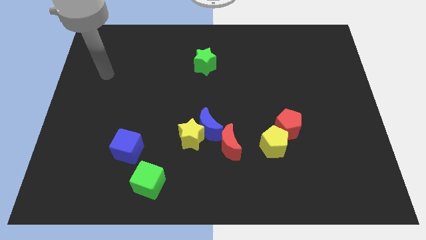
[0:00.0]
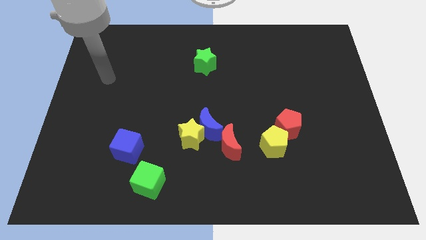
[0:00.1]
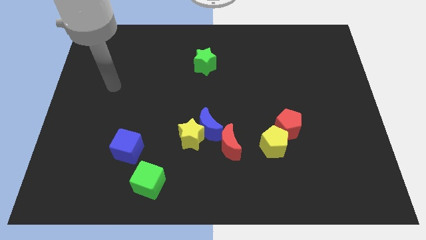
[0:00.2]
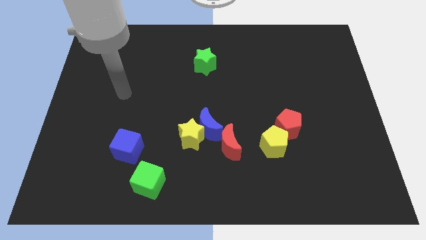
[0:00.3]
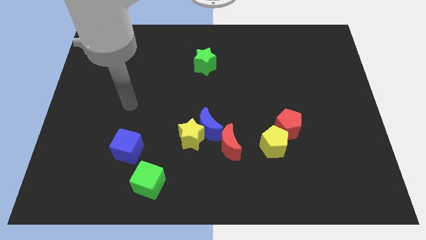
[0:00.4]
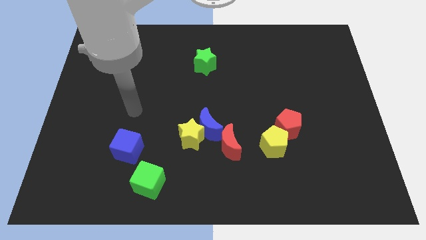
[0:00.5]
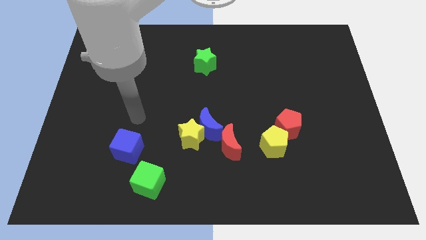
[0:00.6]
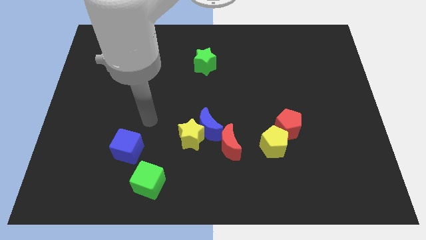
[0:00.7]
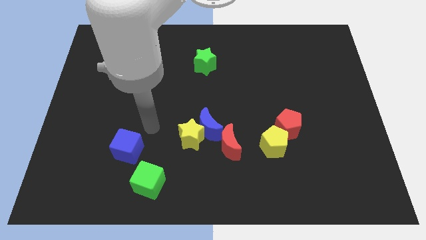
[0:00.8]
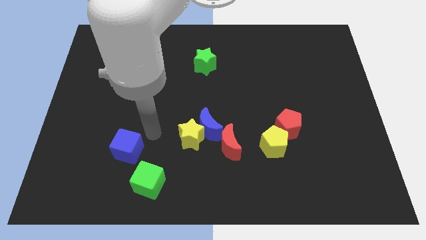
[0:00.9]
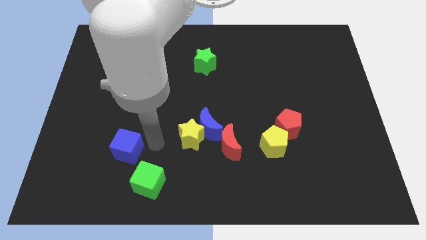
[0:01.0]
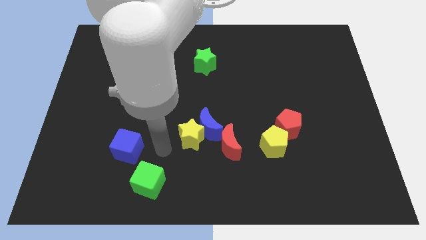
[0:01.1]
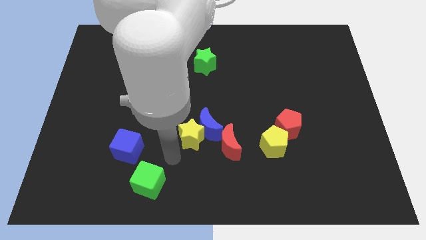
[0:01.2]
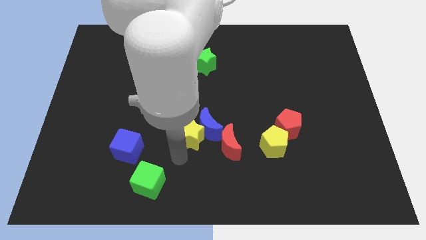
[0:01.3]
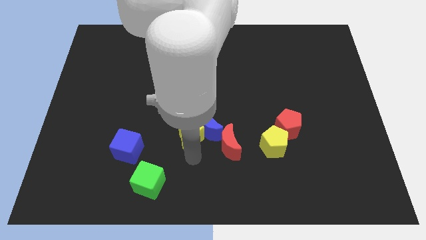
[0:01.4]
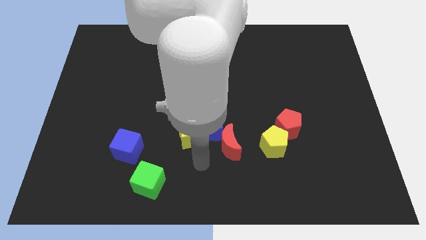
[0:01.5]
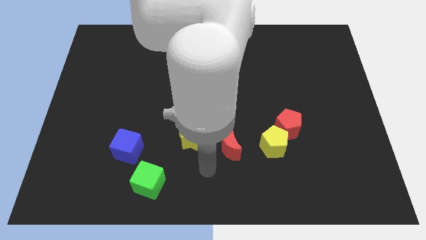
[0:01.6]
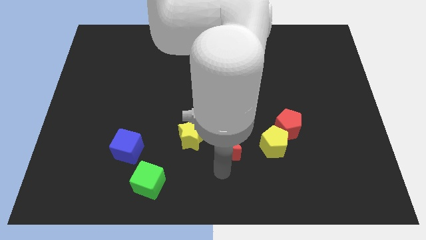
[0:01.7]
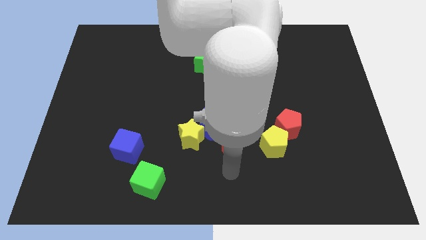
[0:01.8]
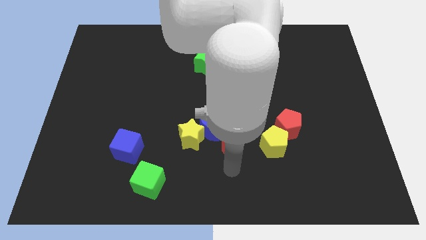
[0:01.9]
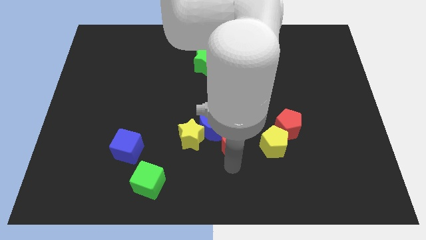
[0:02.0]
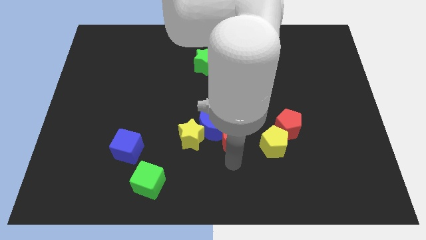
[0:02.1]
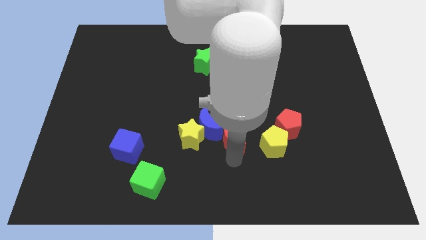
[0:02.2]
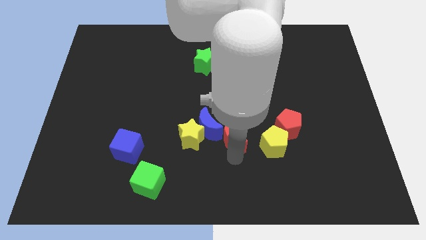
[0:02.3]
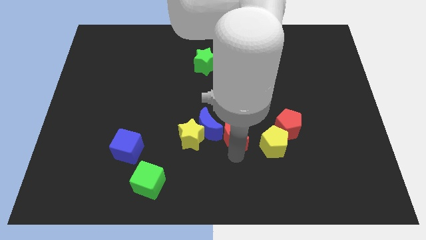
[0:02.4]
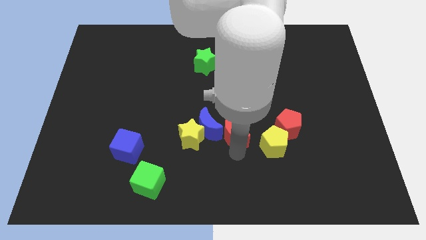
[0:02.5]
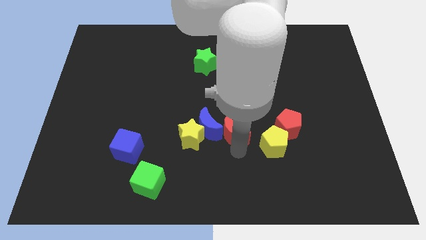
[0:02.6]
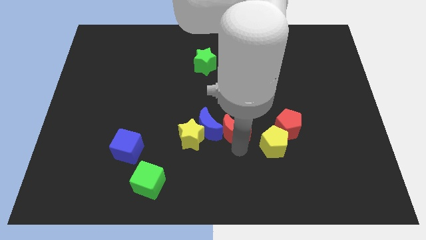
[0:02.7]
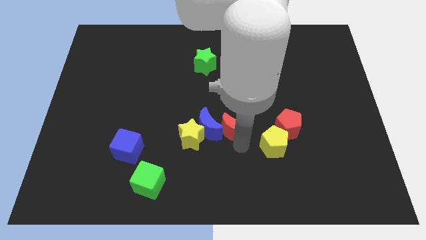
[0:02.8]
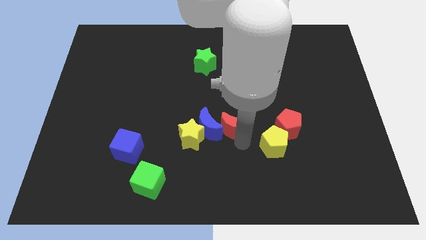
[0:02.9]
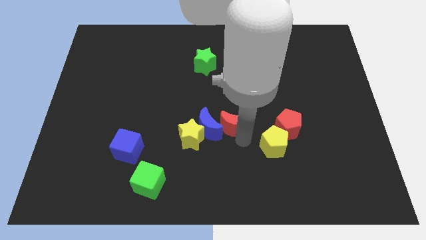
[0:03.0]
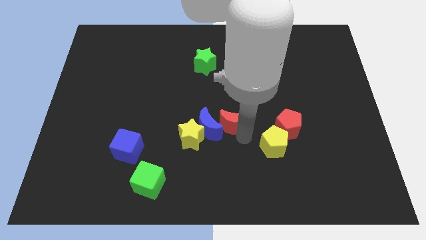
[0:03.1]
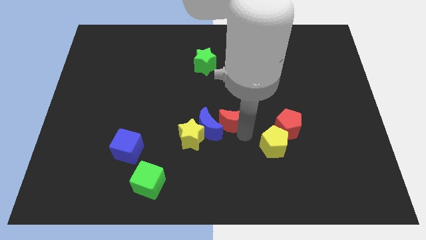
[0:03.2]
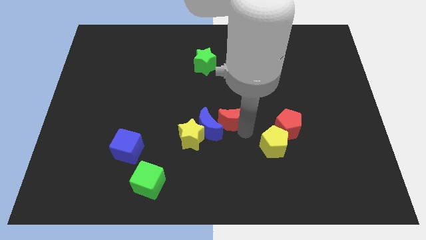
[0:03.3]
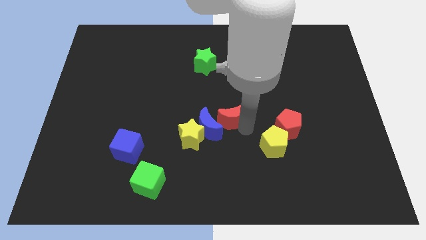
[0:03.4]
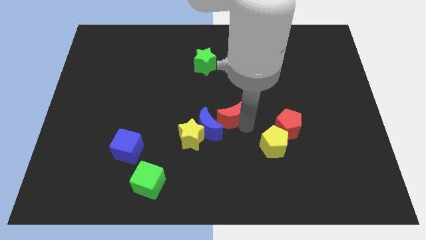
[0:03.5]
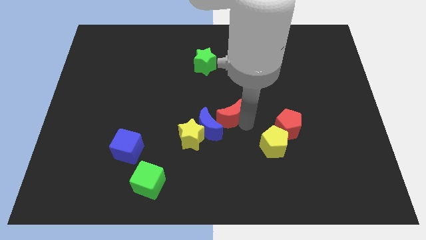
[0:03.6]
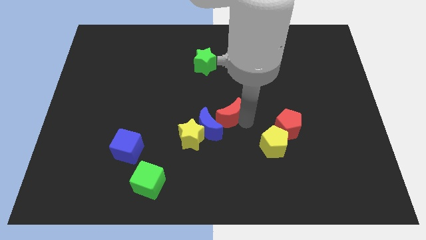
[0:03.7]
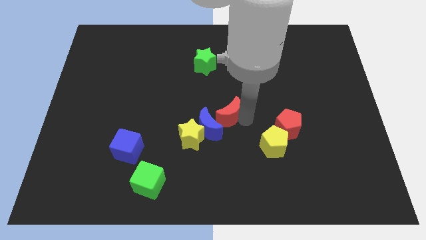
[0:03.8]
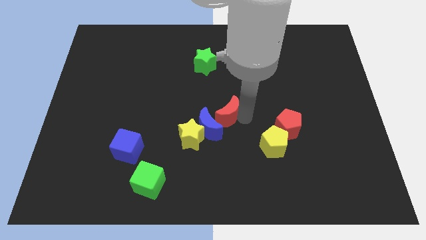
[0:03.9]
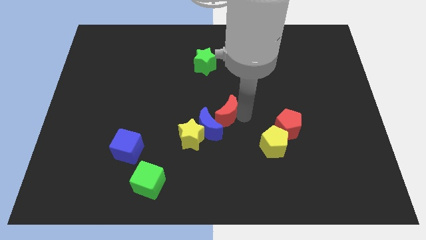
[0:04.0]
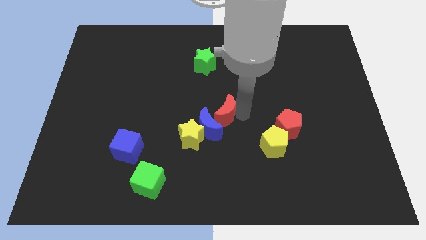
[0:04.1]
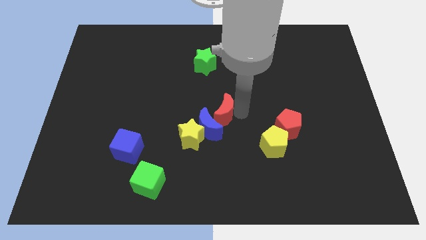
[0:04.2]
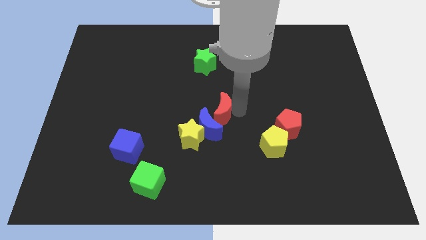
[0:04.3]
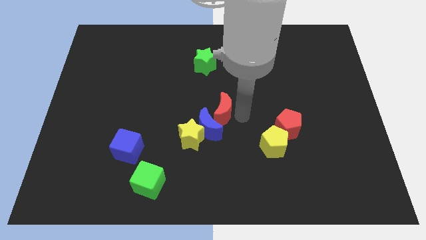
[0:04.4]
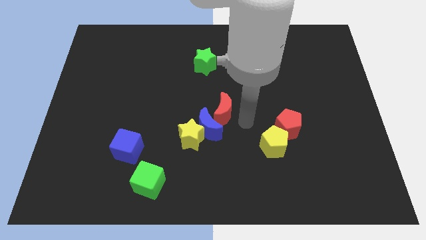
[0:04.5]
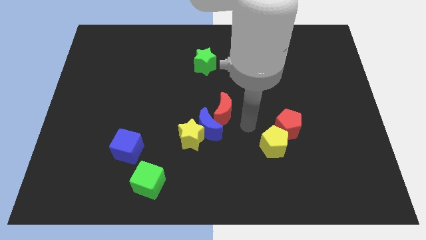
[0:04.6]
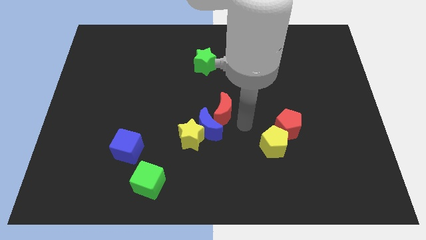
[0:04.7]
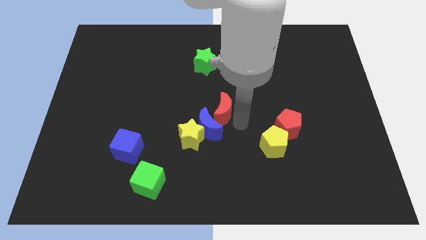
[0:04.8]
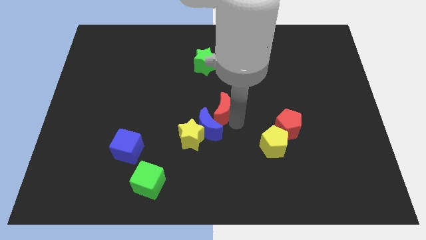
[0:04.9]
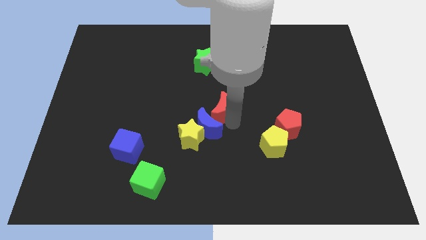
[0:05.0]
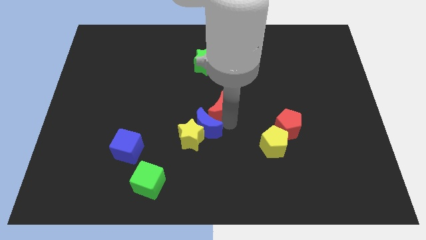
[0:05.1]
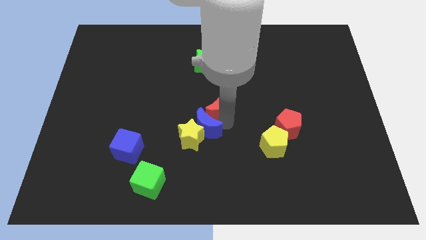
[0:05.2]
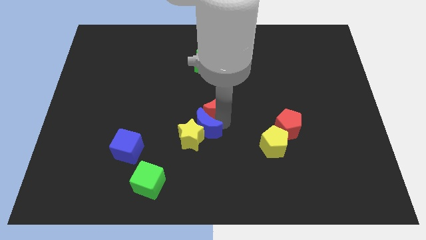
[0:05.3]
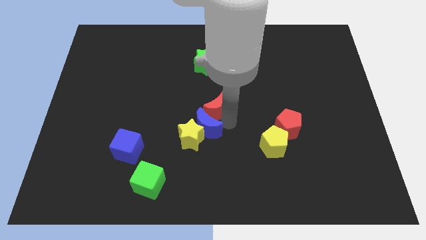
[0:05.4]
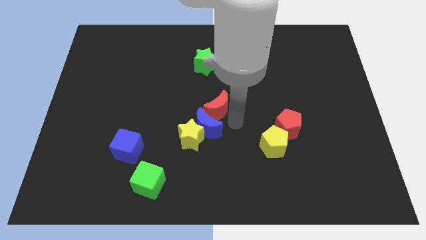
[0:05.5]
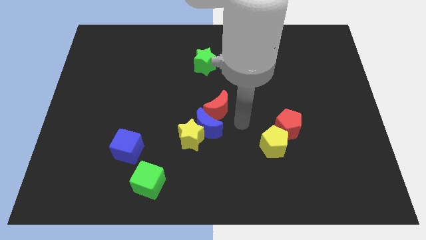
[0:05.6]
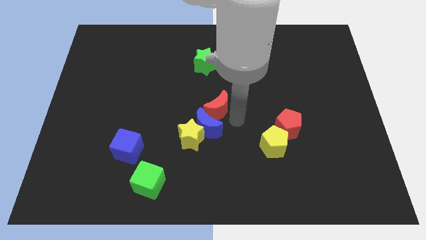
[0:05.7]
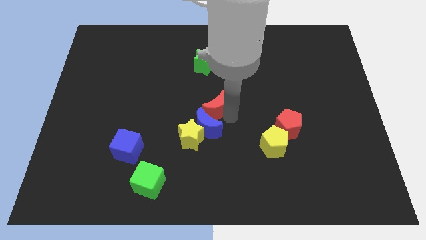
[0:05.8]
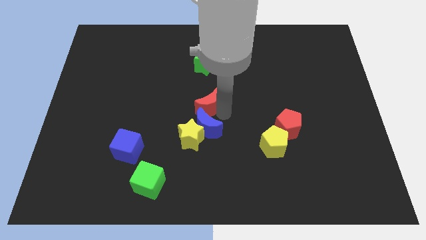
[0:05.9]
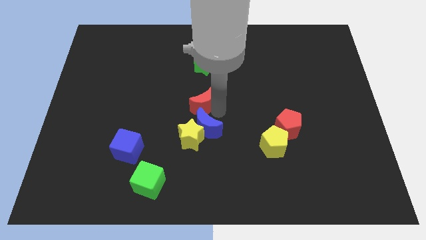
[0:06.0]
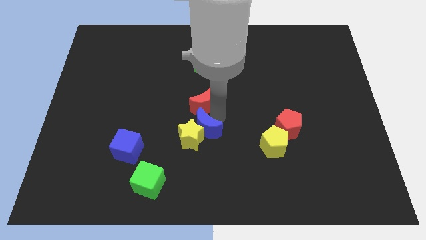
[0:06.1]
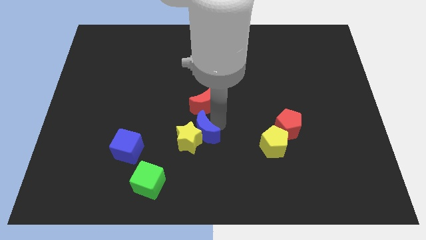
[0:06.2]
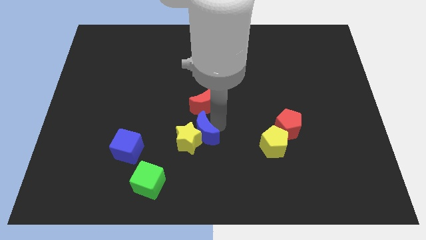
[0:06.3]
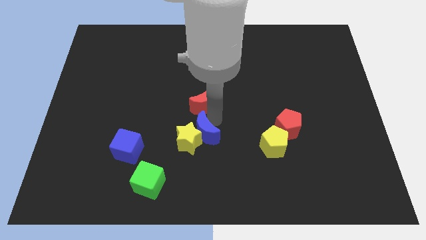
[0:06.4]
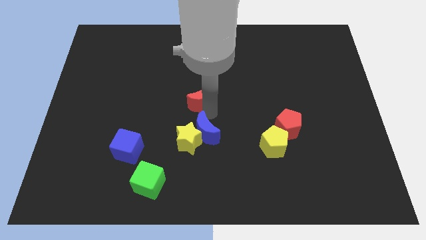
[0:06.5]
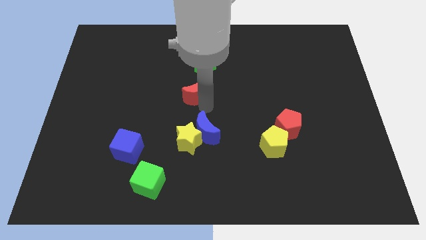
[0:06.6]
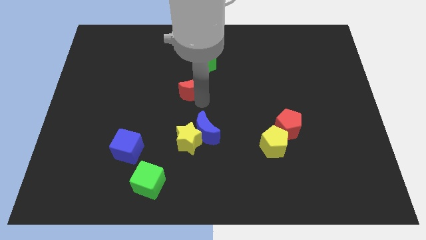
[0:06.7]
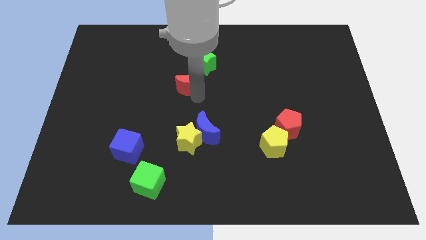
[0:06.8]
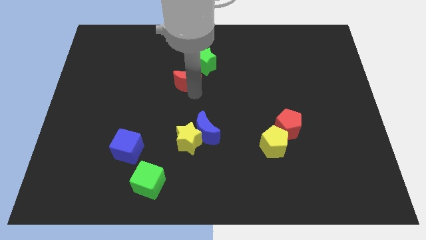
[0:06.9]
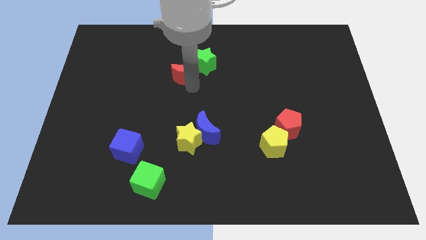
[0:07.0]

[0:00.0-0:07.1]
slide the red moon just left of the green star
